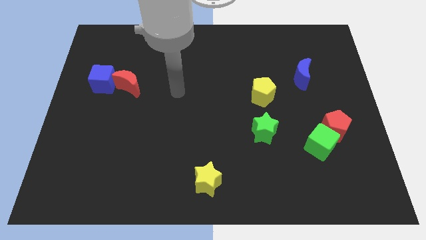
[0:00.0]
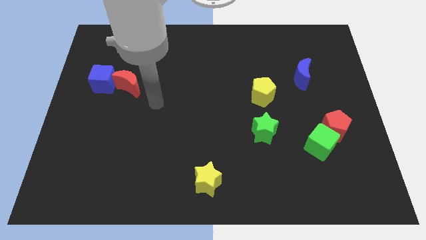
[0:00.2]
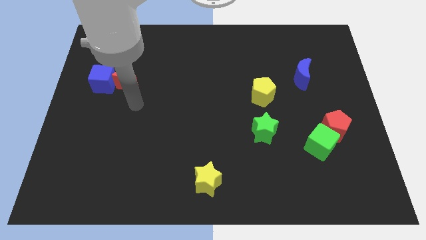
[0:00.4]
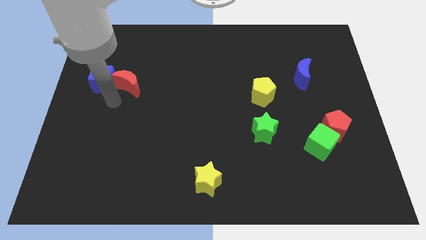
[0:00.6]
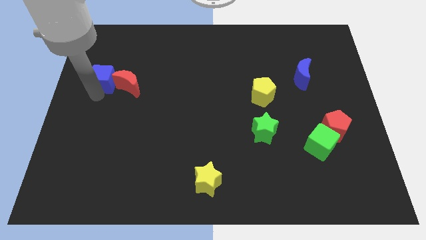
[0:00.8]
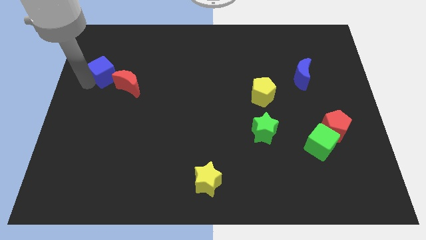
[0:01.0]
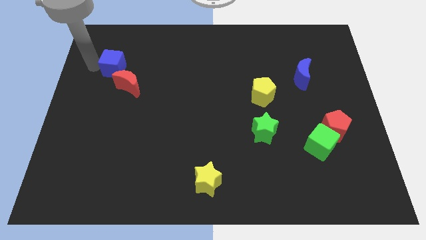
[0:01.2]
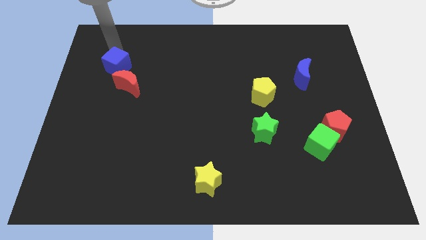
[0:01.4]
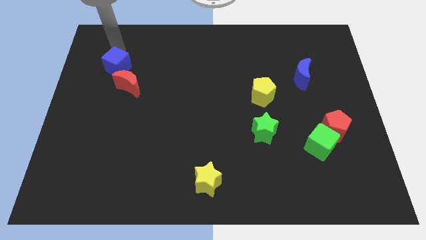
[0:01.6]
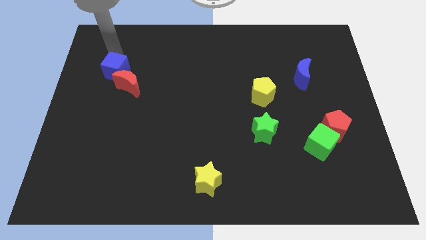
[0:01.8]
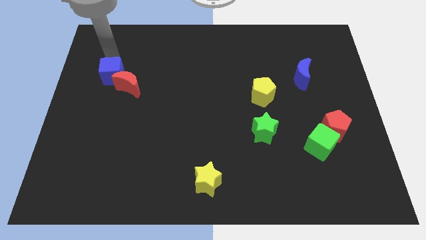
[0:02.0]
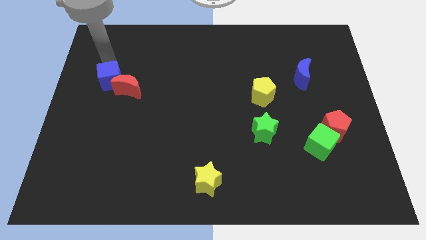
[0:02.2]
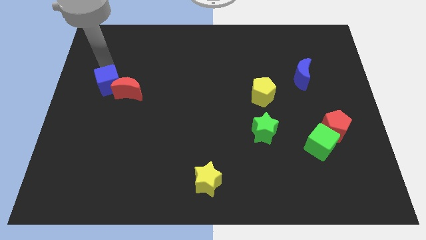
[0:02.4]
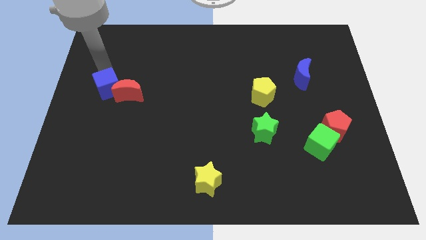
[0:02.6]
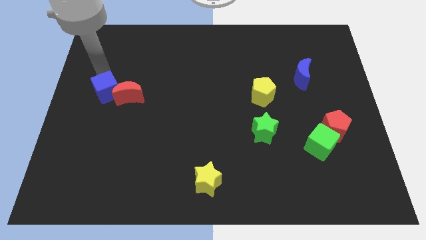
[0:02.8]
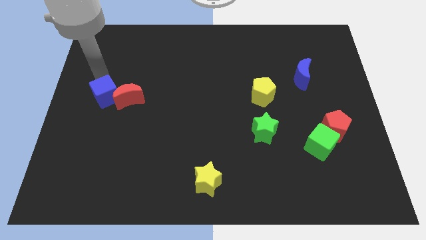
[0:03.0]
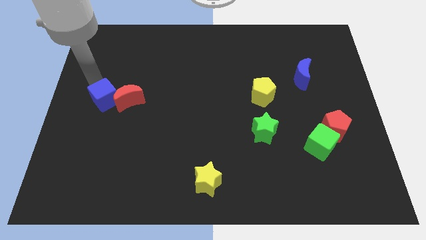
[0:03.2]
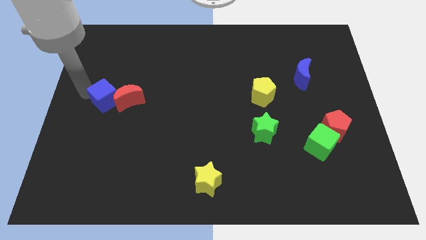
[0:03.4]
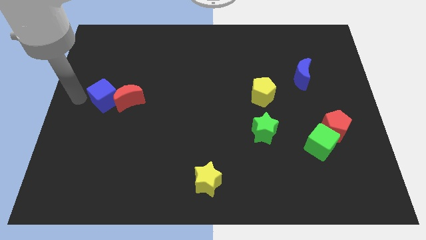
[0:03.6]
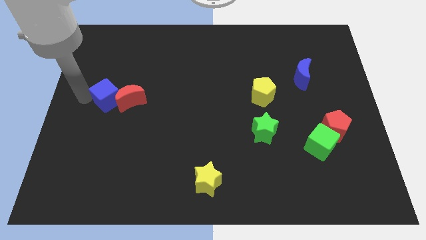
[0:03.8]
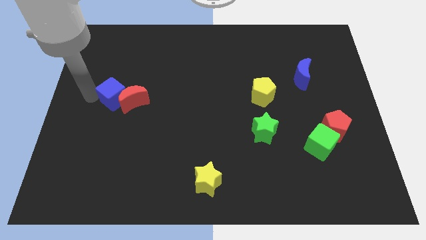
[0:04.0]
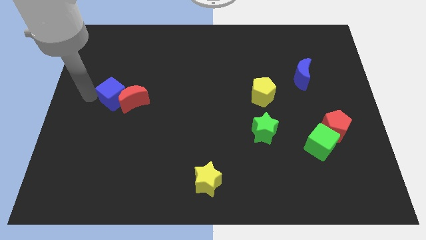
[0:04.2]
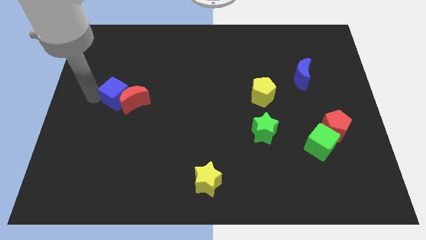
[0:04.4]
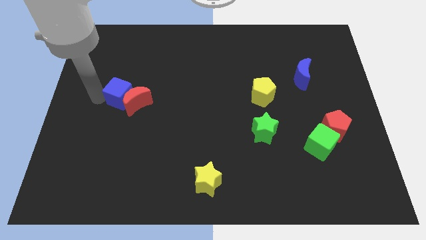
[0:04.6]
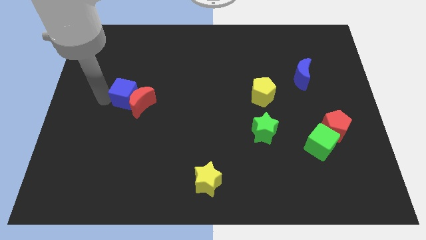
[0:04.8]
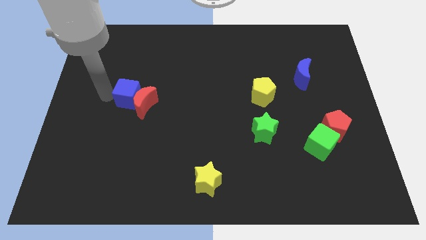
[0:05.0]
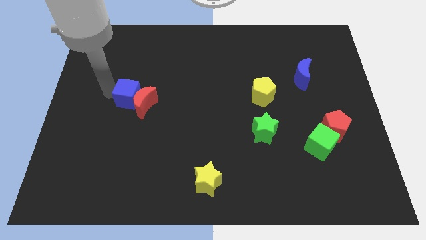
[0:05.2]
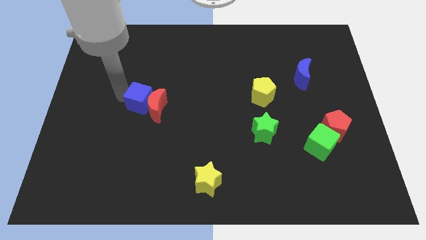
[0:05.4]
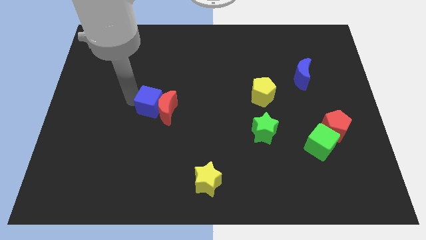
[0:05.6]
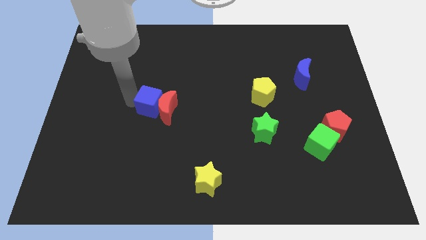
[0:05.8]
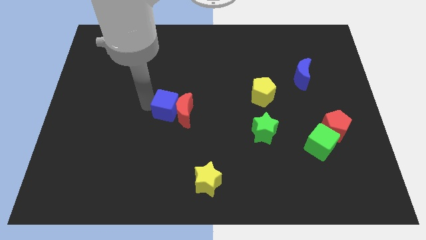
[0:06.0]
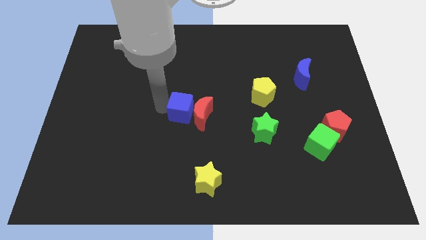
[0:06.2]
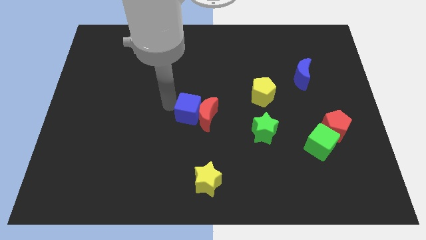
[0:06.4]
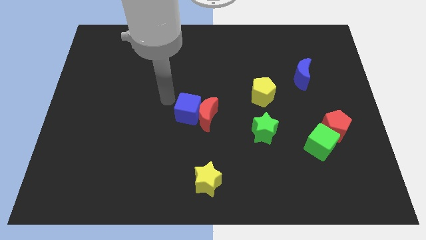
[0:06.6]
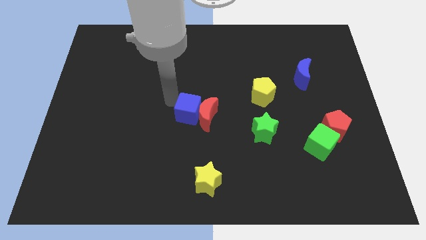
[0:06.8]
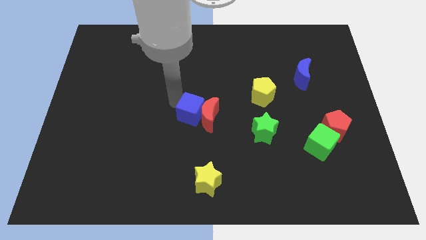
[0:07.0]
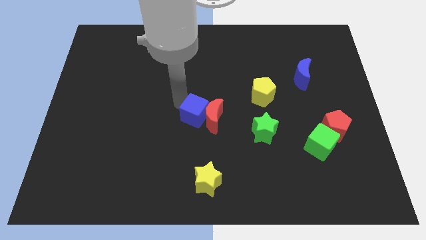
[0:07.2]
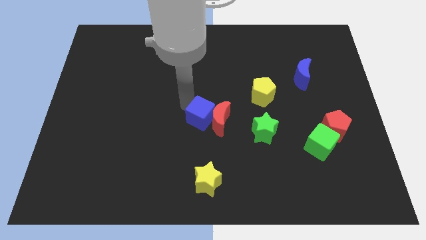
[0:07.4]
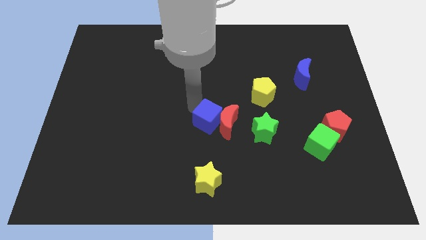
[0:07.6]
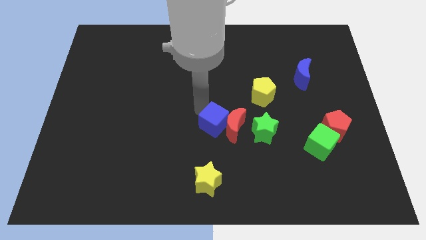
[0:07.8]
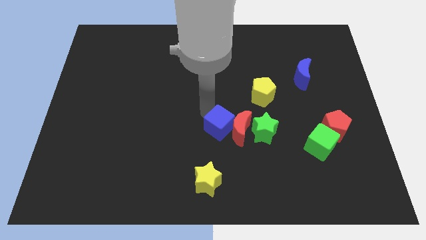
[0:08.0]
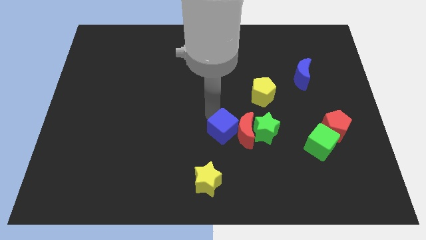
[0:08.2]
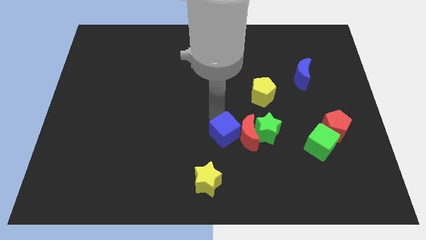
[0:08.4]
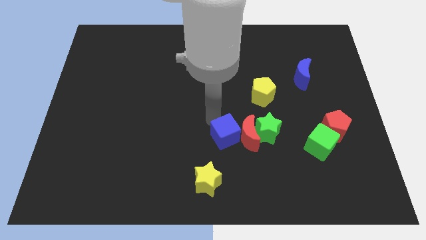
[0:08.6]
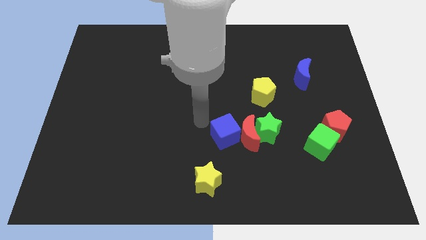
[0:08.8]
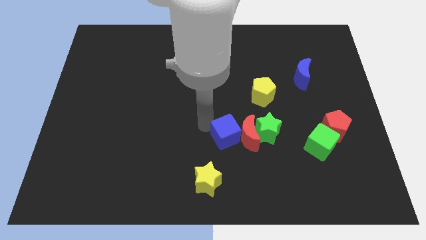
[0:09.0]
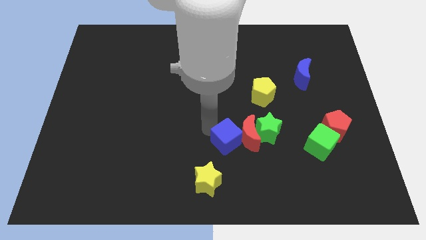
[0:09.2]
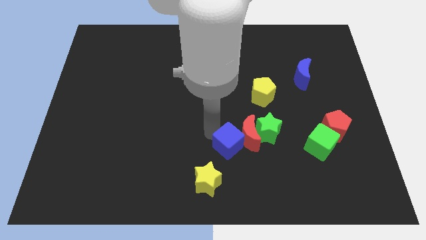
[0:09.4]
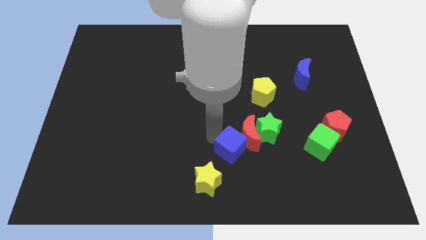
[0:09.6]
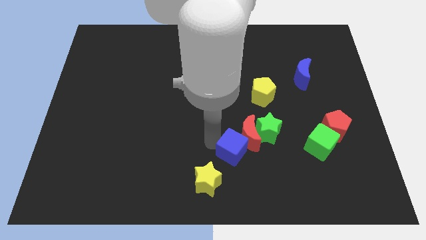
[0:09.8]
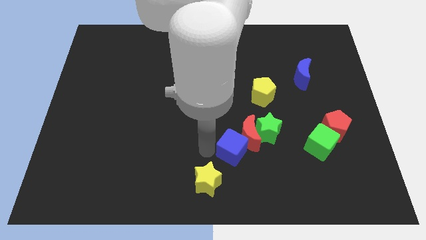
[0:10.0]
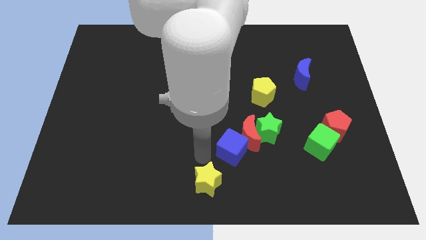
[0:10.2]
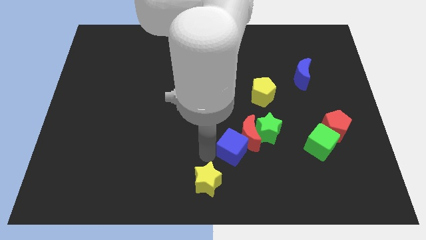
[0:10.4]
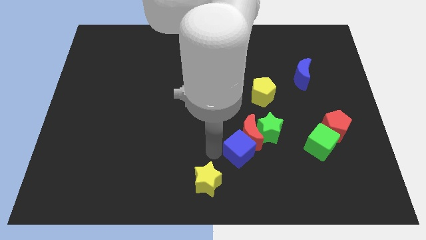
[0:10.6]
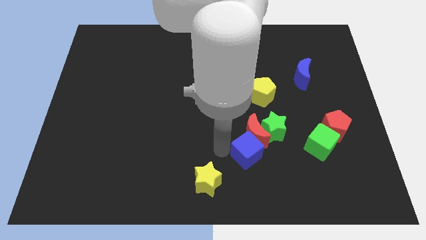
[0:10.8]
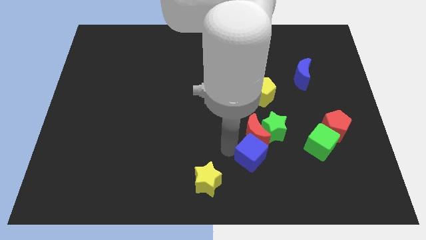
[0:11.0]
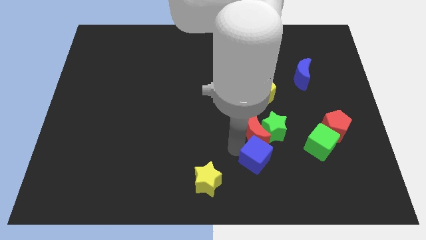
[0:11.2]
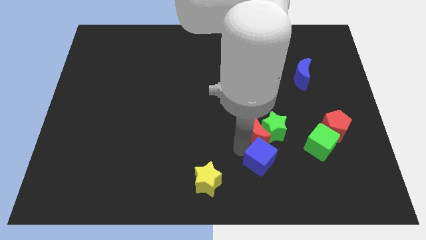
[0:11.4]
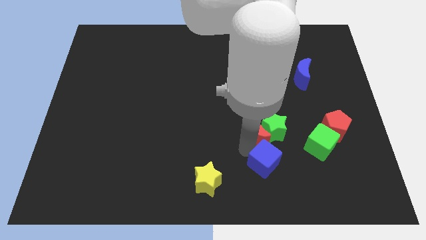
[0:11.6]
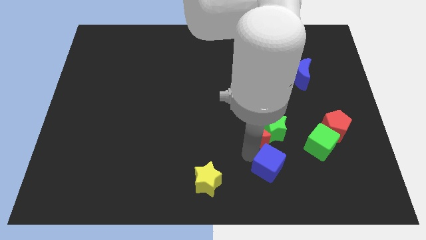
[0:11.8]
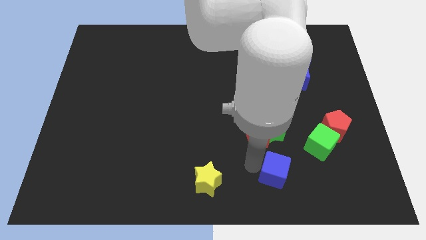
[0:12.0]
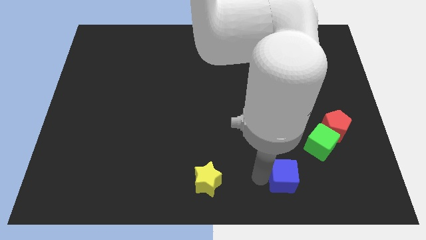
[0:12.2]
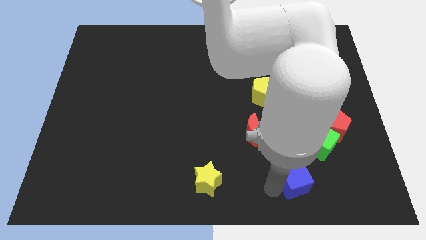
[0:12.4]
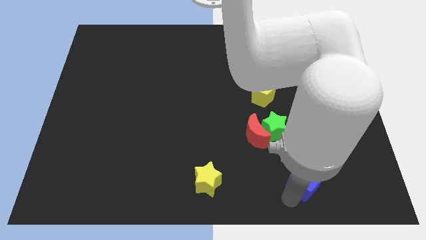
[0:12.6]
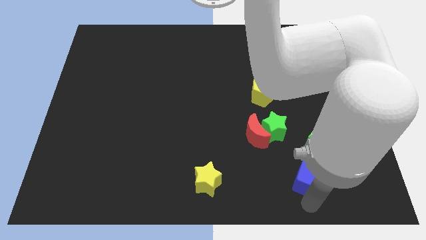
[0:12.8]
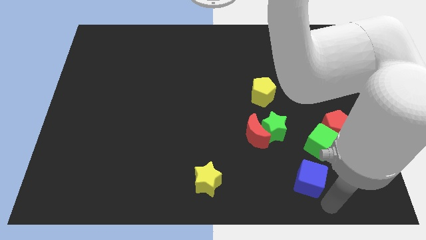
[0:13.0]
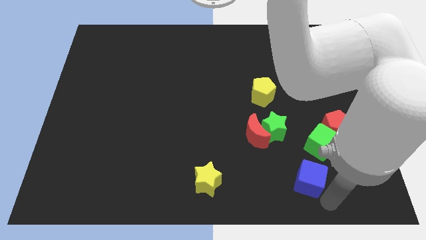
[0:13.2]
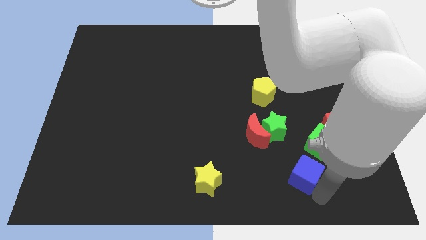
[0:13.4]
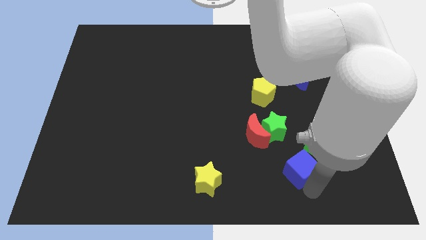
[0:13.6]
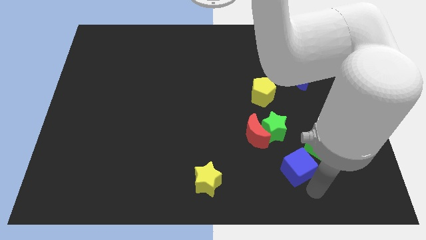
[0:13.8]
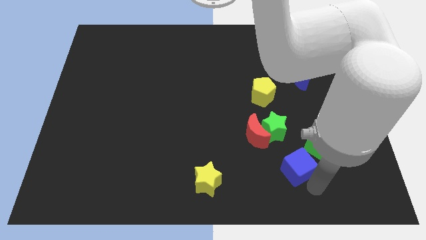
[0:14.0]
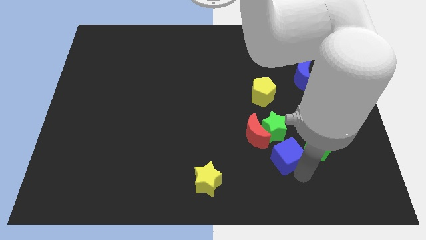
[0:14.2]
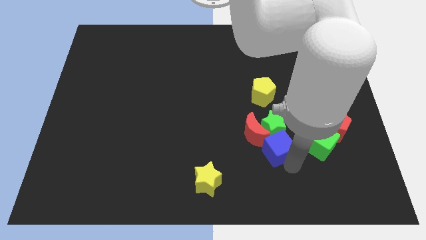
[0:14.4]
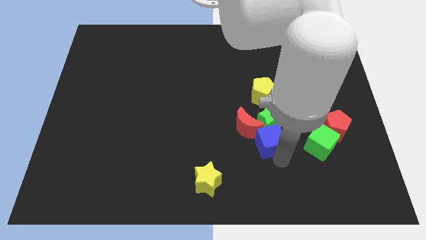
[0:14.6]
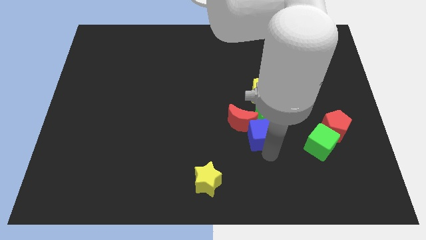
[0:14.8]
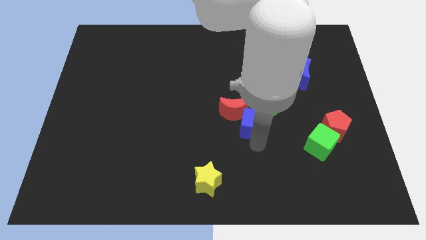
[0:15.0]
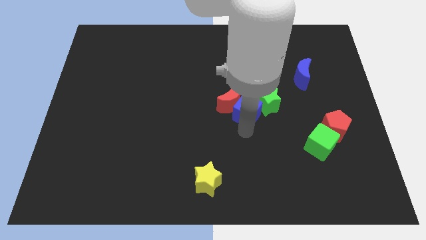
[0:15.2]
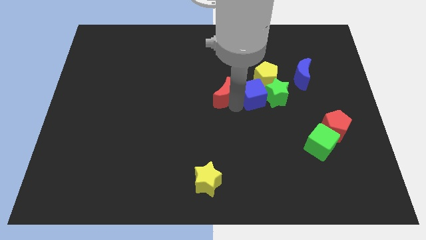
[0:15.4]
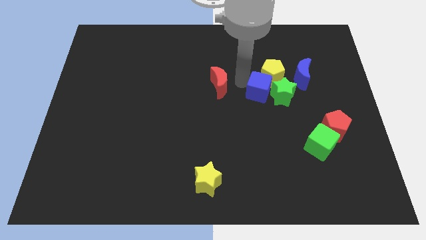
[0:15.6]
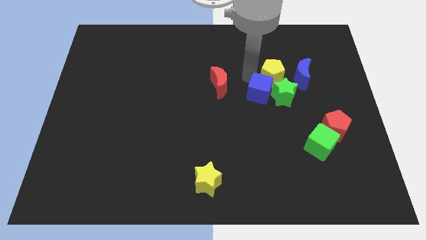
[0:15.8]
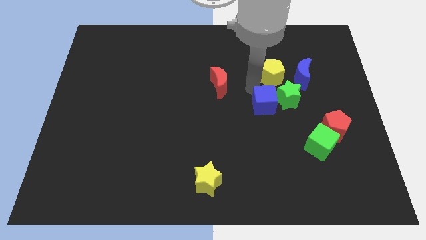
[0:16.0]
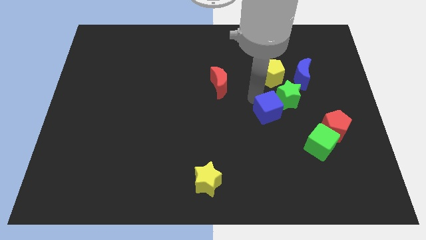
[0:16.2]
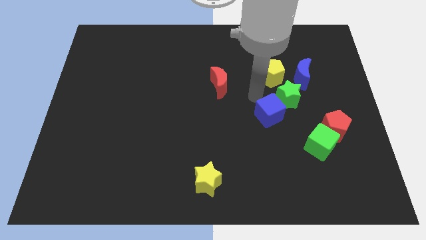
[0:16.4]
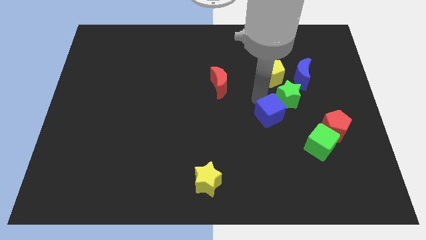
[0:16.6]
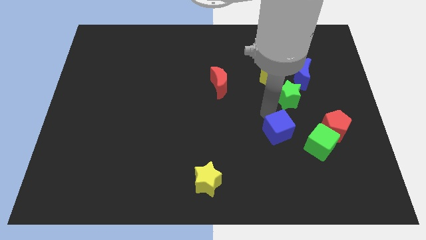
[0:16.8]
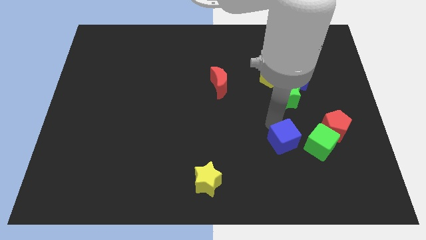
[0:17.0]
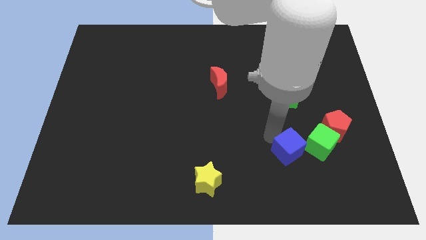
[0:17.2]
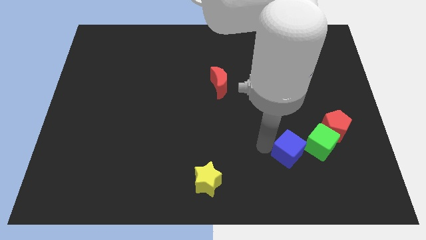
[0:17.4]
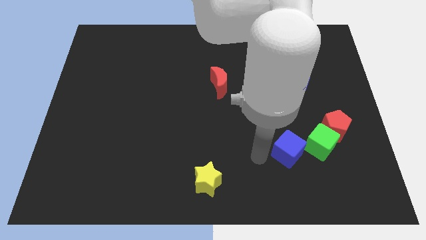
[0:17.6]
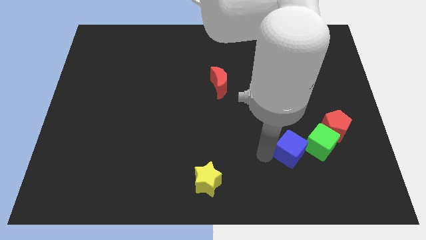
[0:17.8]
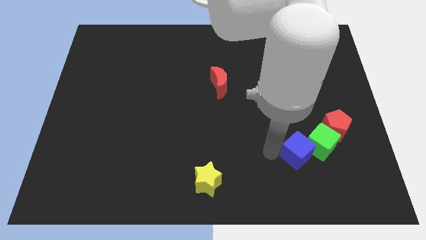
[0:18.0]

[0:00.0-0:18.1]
put the blue cube next to the green cube
